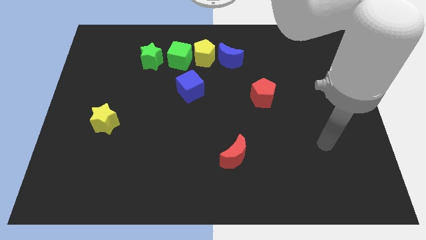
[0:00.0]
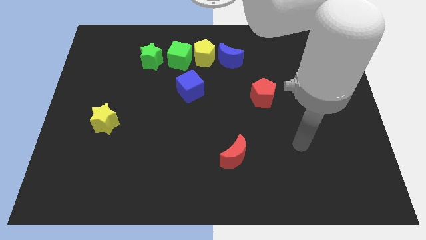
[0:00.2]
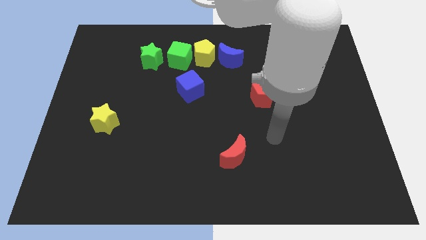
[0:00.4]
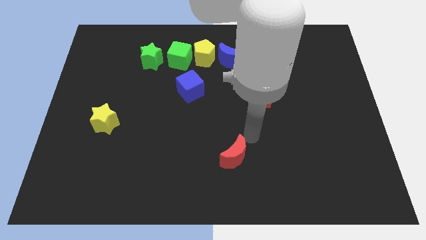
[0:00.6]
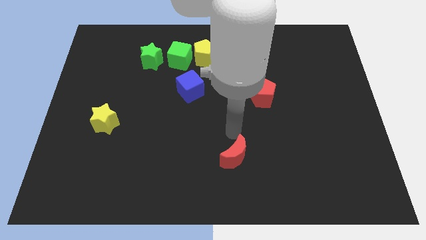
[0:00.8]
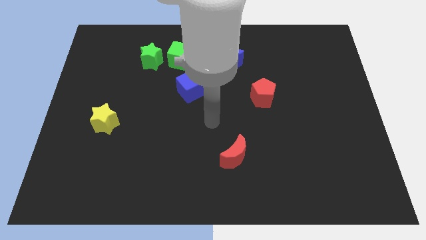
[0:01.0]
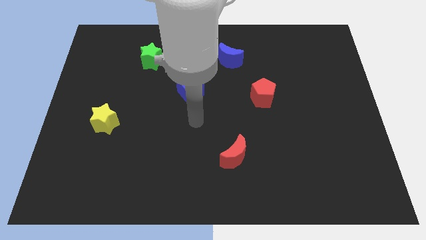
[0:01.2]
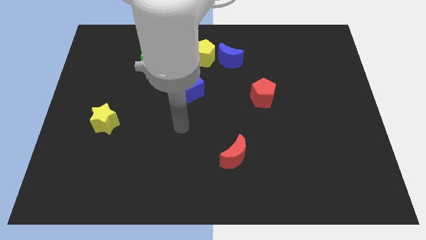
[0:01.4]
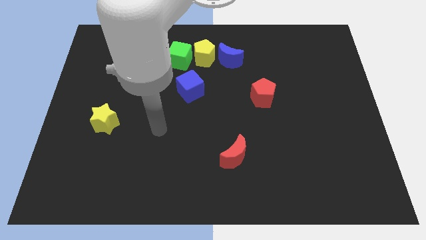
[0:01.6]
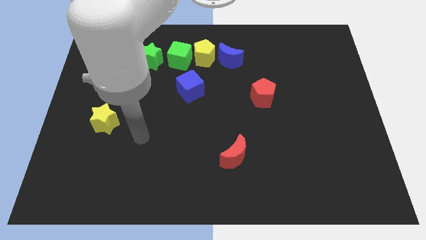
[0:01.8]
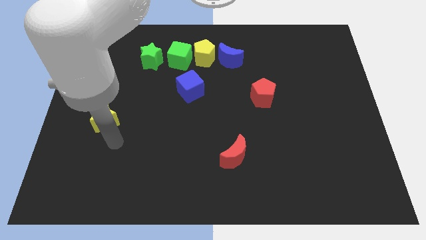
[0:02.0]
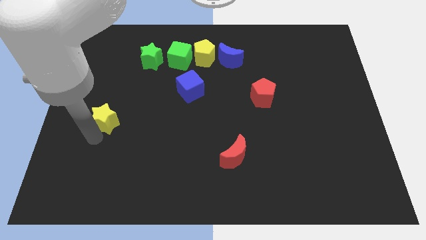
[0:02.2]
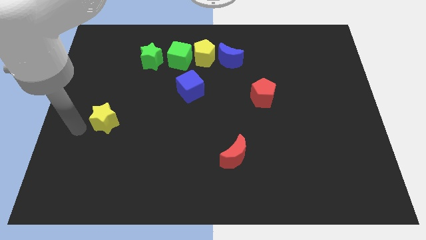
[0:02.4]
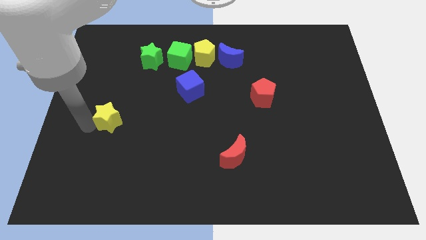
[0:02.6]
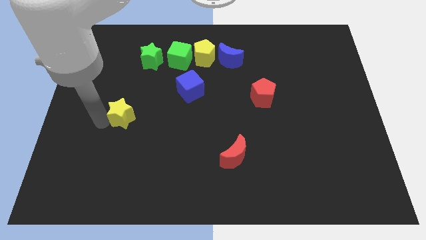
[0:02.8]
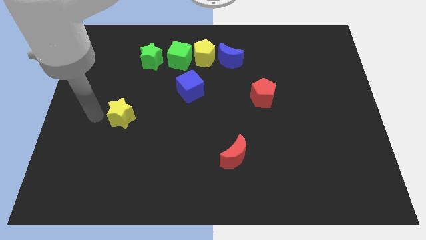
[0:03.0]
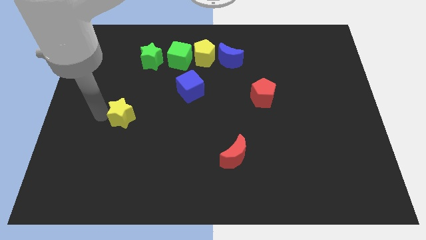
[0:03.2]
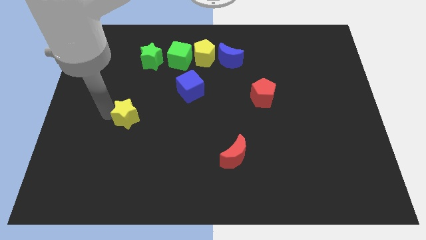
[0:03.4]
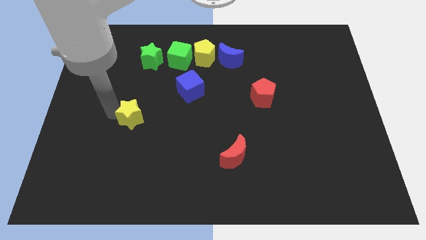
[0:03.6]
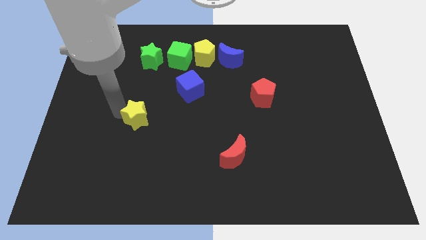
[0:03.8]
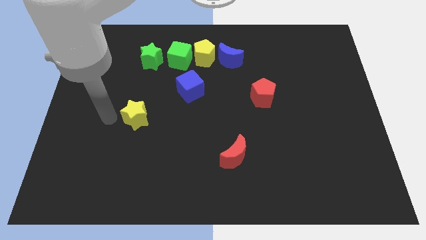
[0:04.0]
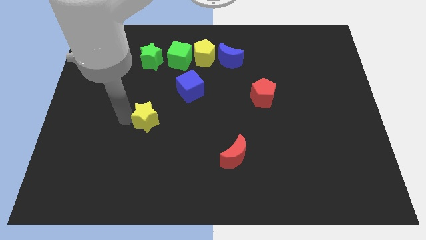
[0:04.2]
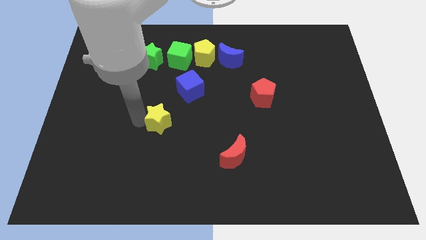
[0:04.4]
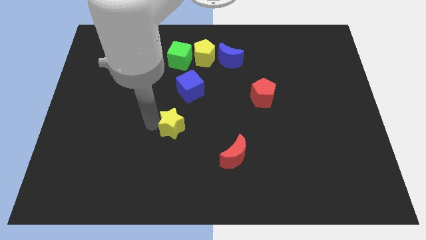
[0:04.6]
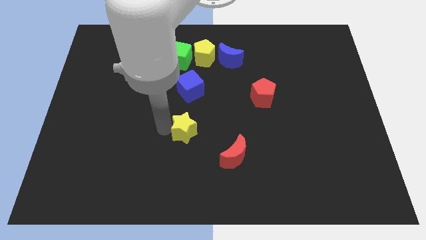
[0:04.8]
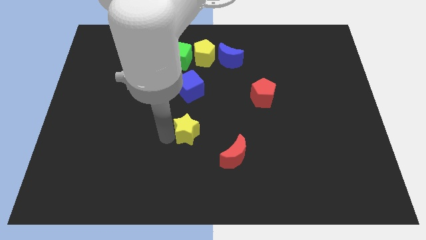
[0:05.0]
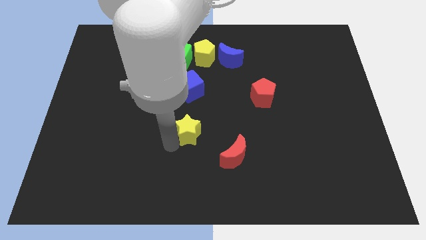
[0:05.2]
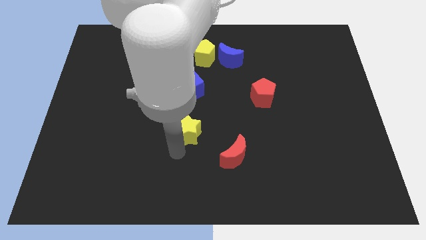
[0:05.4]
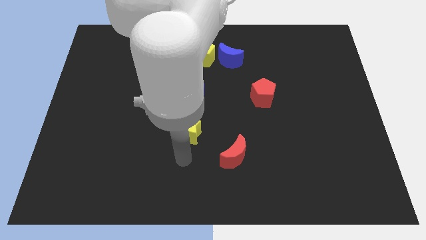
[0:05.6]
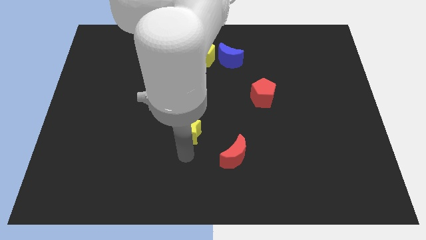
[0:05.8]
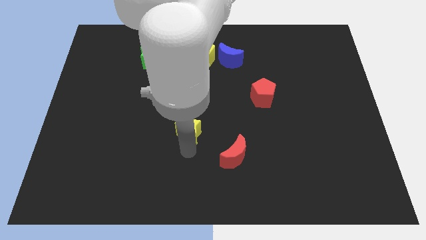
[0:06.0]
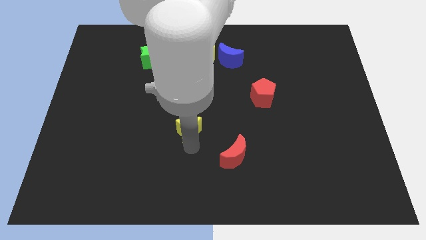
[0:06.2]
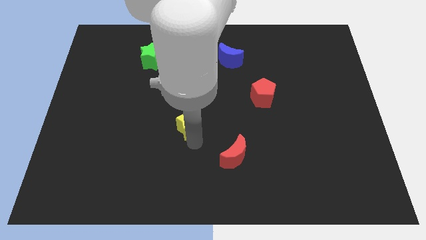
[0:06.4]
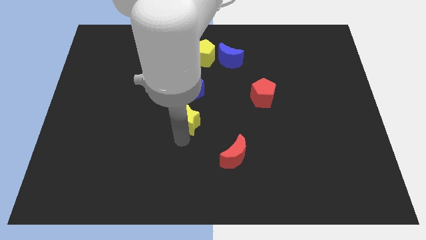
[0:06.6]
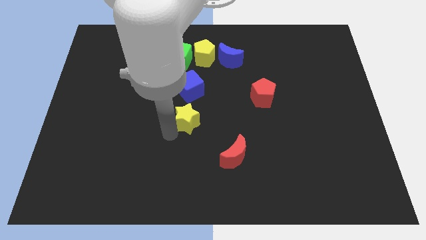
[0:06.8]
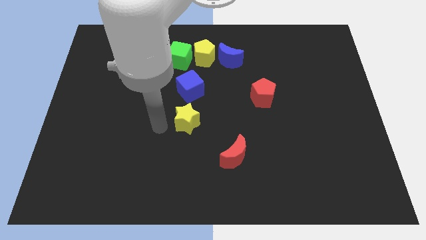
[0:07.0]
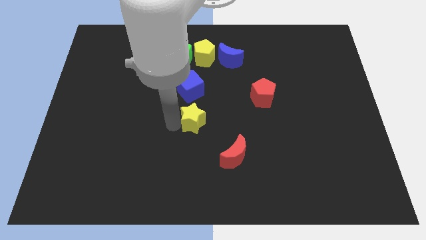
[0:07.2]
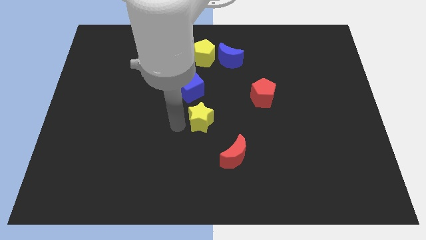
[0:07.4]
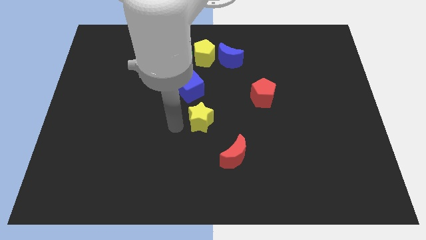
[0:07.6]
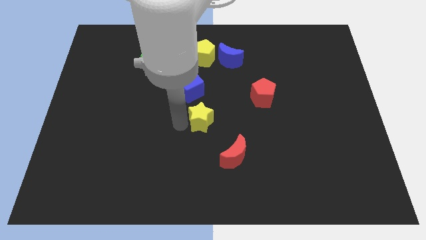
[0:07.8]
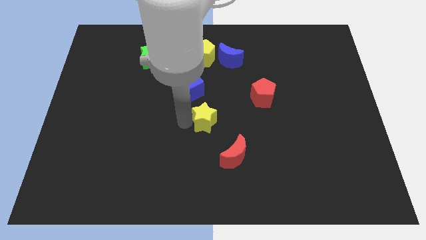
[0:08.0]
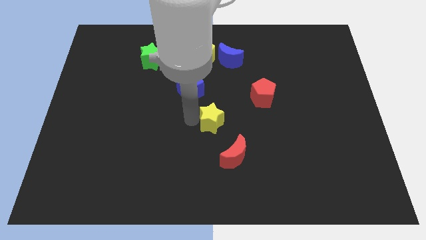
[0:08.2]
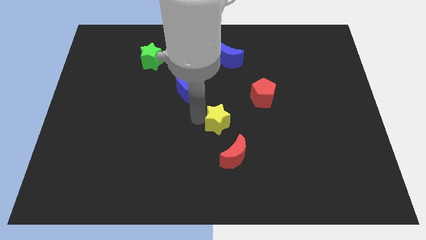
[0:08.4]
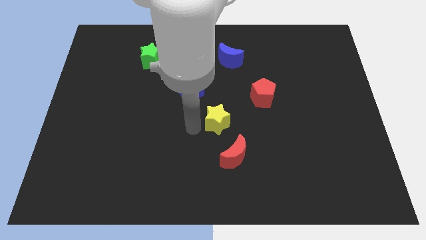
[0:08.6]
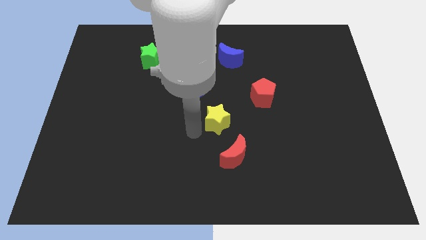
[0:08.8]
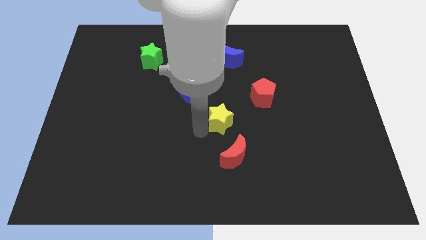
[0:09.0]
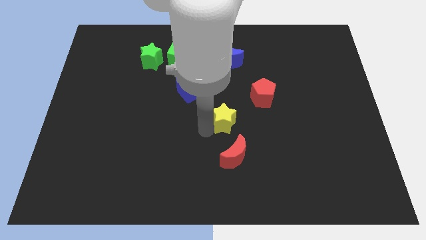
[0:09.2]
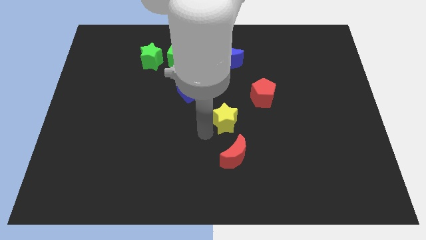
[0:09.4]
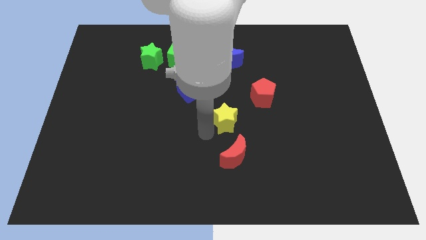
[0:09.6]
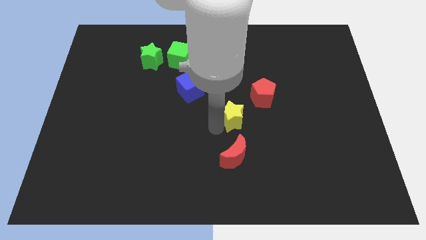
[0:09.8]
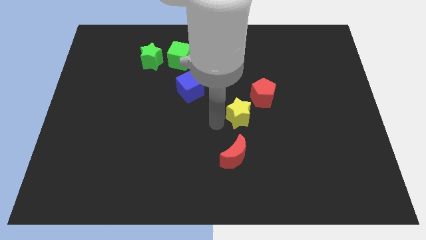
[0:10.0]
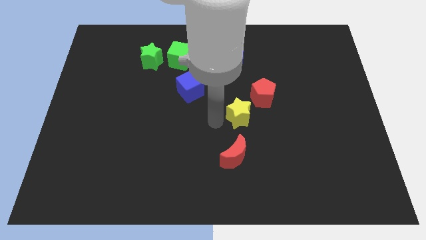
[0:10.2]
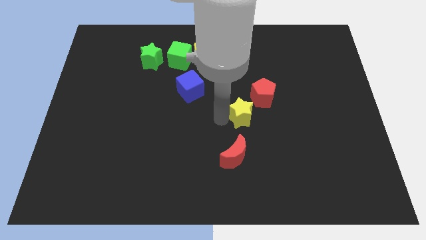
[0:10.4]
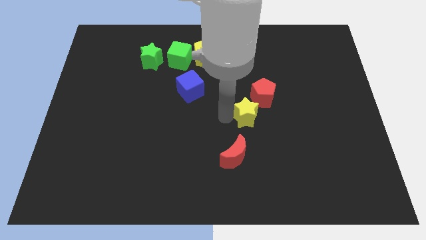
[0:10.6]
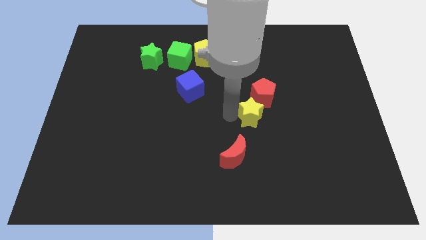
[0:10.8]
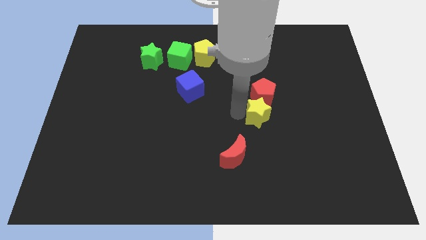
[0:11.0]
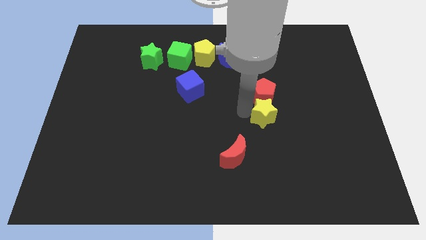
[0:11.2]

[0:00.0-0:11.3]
move the yellow star to the bottom right of the red pentagon

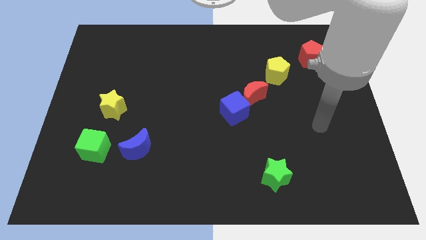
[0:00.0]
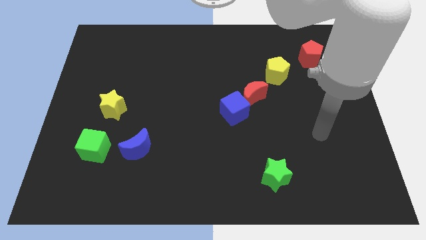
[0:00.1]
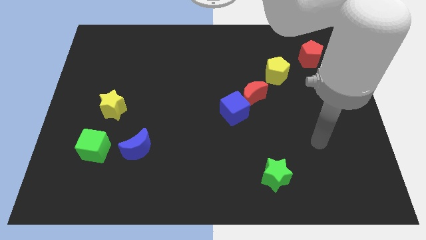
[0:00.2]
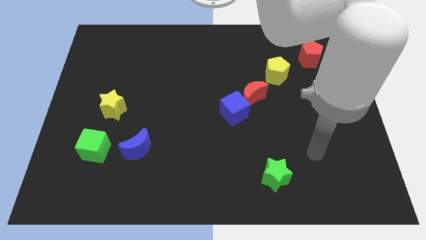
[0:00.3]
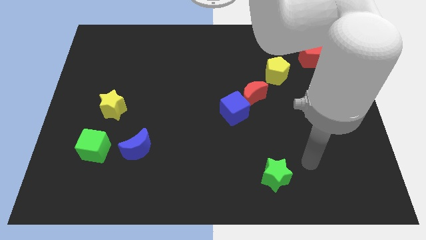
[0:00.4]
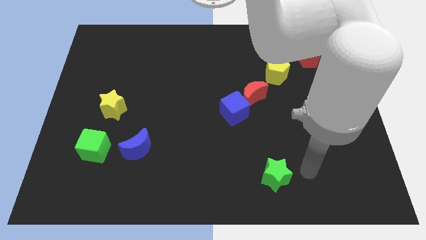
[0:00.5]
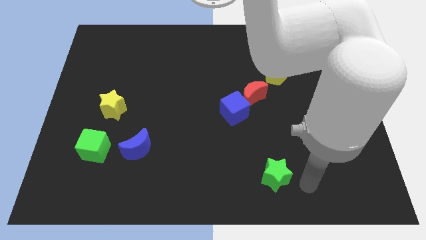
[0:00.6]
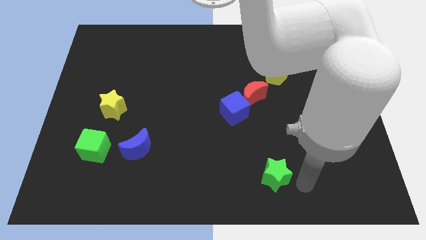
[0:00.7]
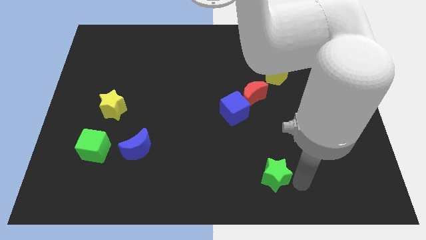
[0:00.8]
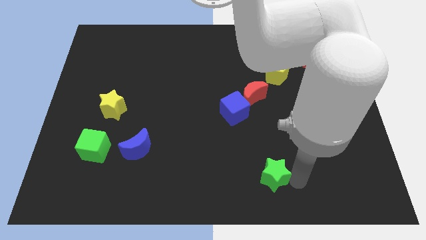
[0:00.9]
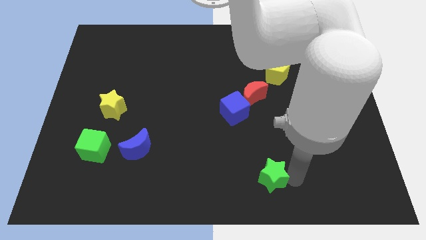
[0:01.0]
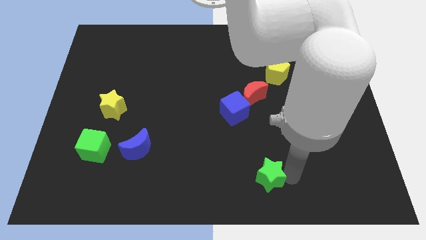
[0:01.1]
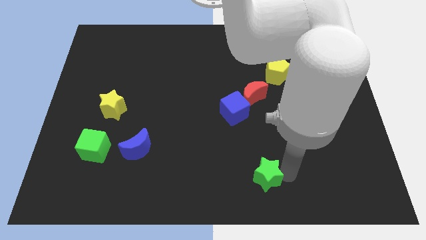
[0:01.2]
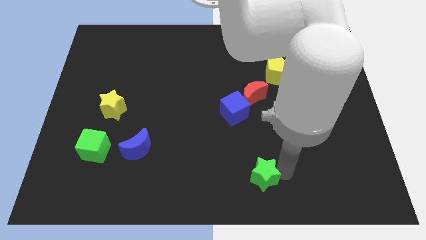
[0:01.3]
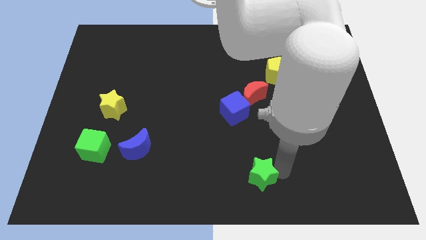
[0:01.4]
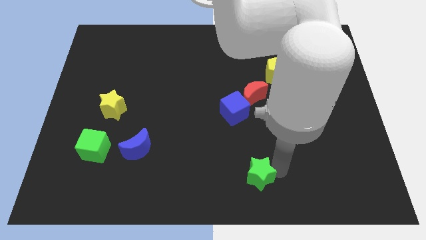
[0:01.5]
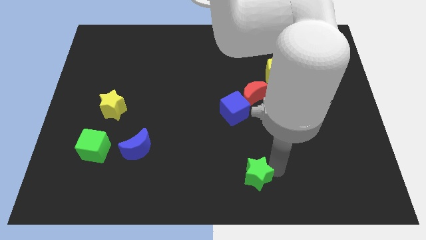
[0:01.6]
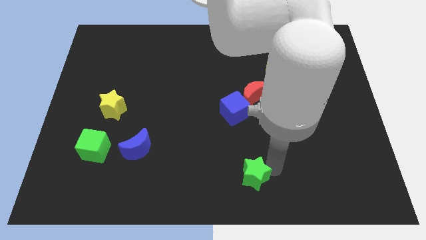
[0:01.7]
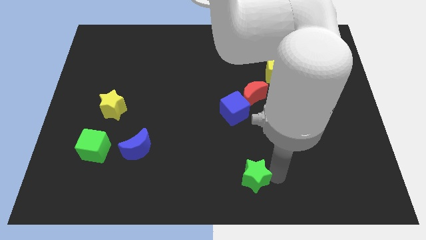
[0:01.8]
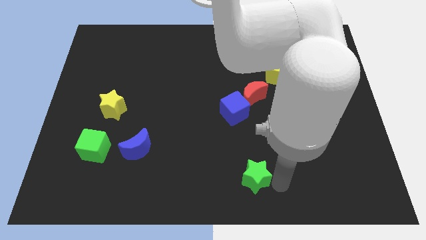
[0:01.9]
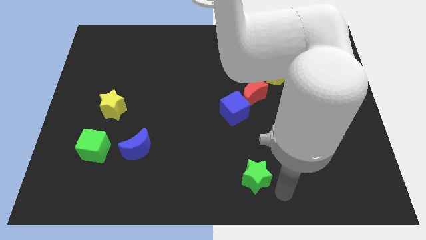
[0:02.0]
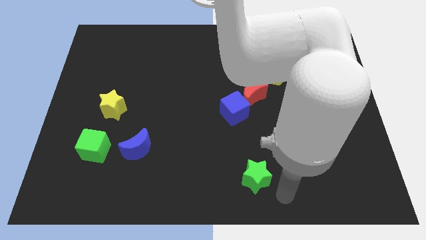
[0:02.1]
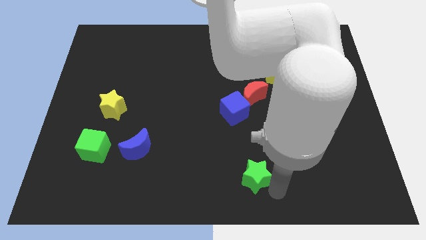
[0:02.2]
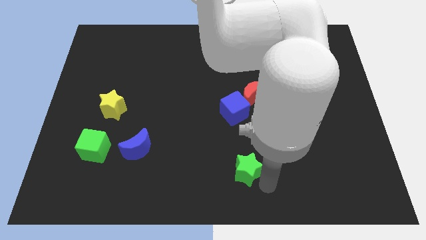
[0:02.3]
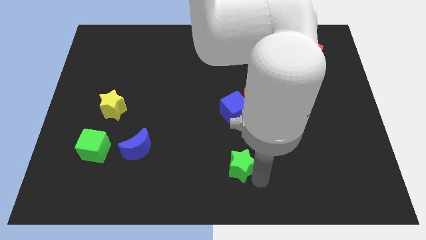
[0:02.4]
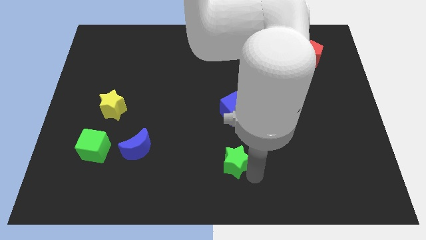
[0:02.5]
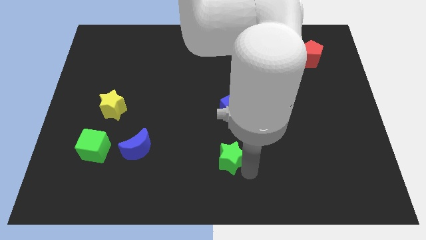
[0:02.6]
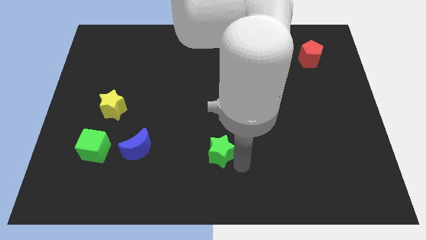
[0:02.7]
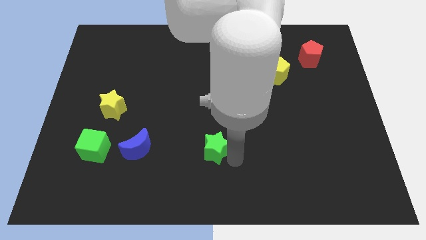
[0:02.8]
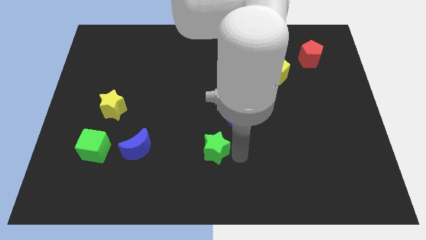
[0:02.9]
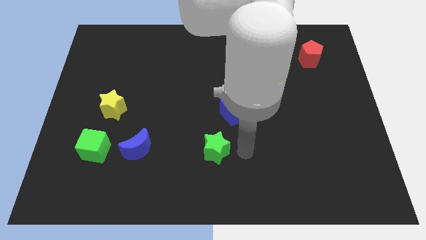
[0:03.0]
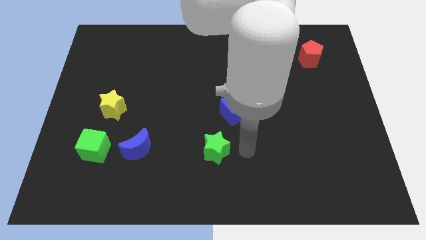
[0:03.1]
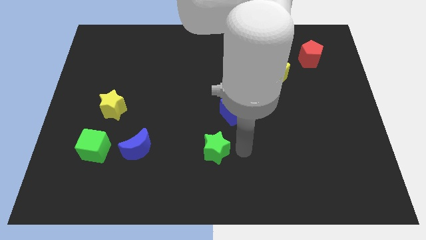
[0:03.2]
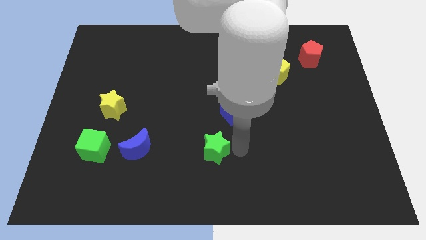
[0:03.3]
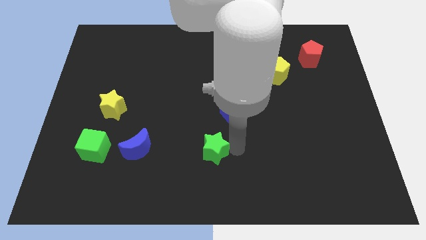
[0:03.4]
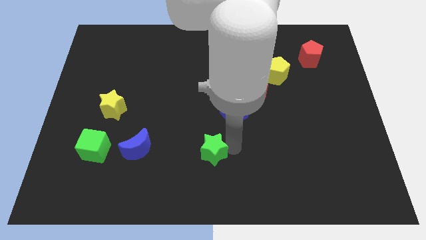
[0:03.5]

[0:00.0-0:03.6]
put the green star to the right of the blue moon
